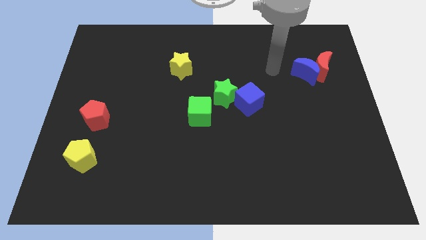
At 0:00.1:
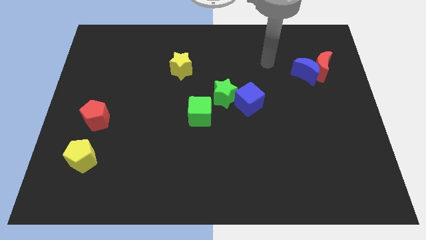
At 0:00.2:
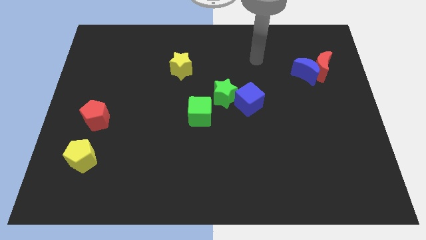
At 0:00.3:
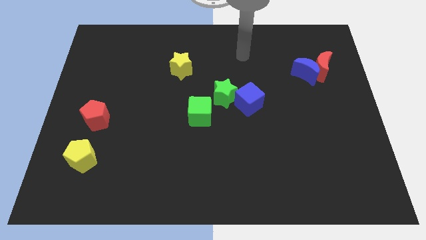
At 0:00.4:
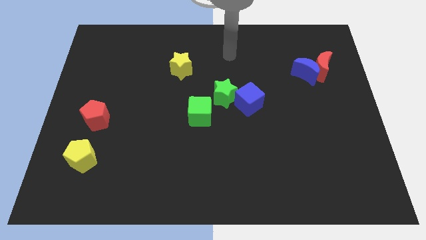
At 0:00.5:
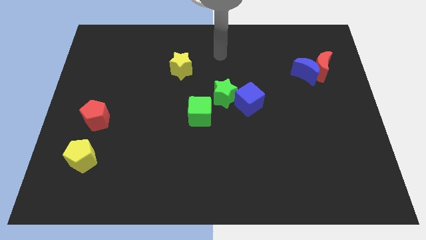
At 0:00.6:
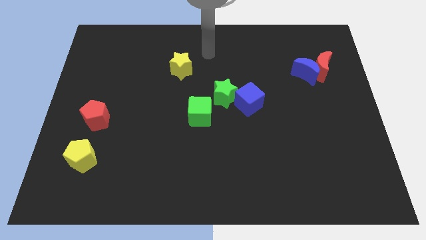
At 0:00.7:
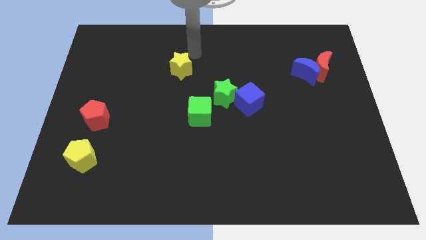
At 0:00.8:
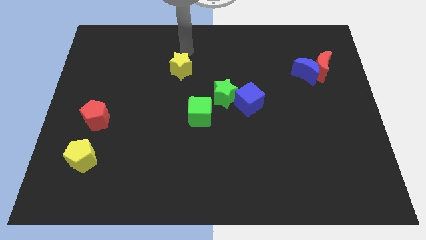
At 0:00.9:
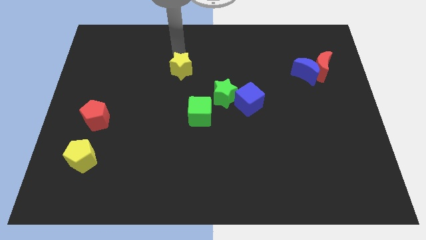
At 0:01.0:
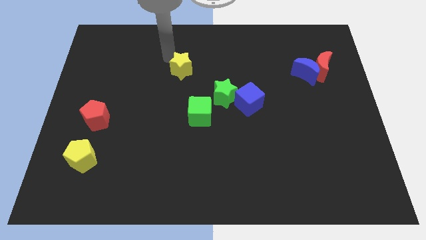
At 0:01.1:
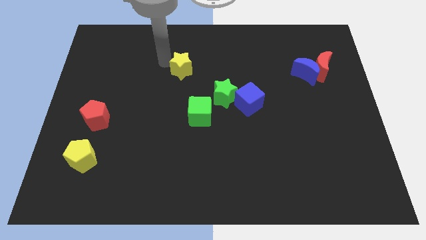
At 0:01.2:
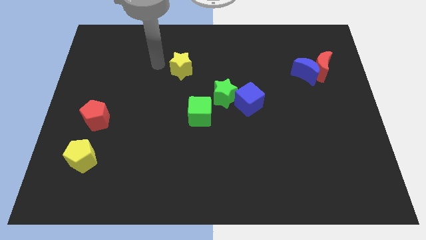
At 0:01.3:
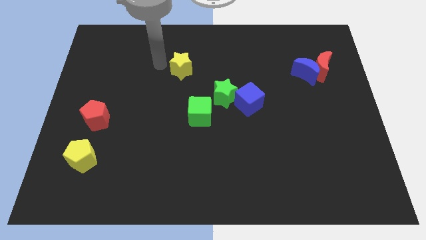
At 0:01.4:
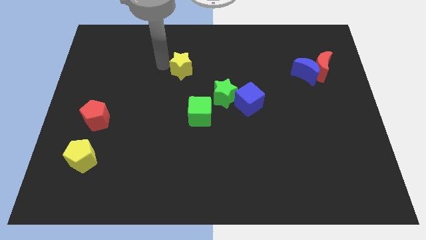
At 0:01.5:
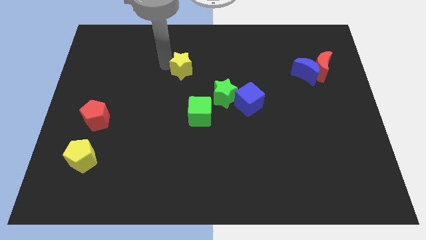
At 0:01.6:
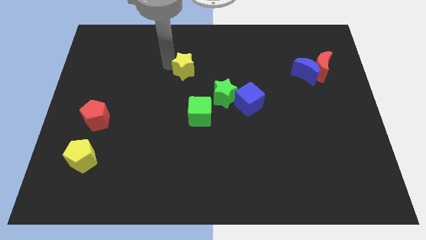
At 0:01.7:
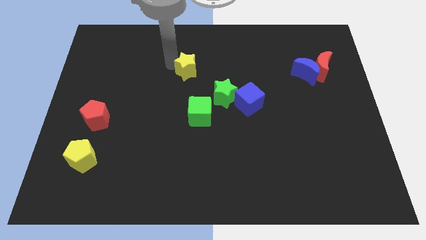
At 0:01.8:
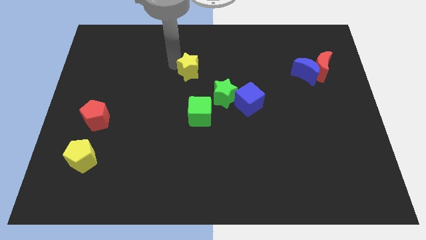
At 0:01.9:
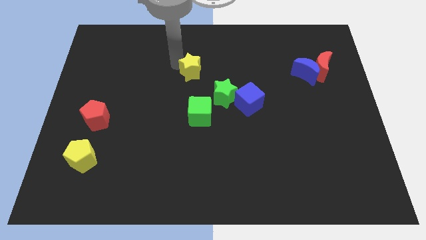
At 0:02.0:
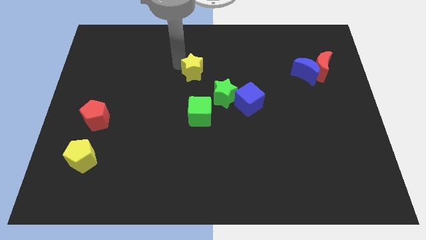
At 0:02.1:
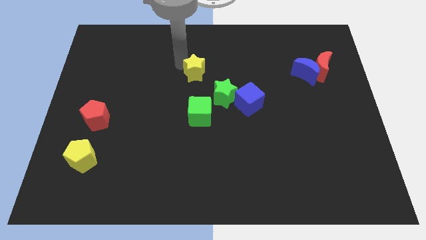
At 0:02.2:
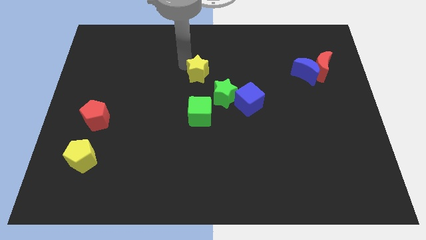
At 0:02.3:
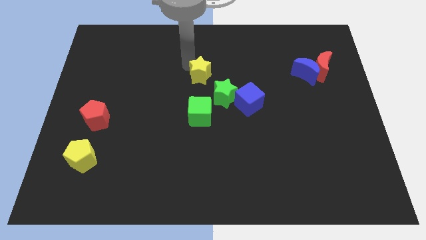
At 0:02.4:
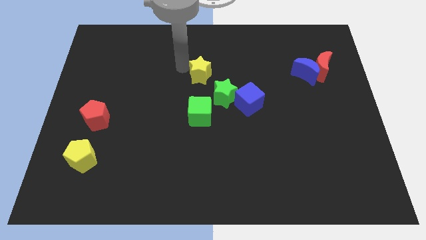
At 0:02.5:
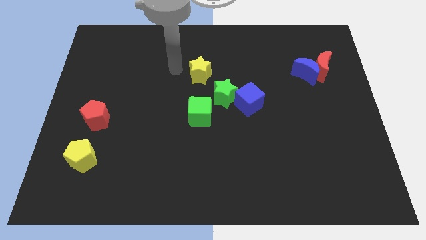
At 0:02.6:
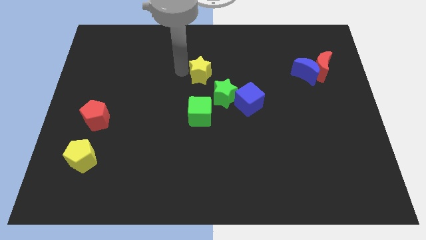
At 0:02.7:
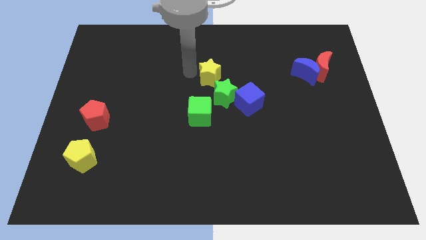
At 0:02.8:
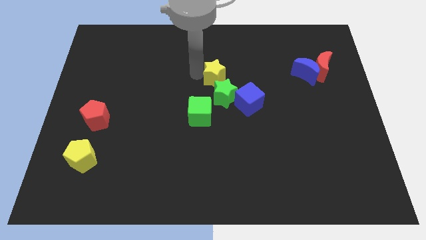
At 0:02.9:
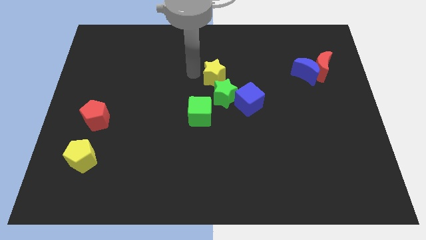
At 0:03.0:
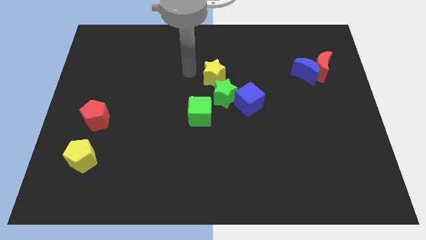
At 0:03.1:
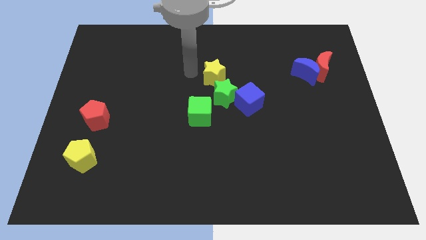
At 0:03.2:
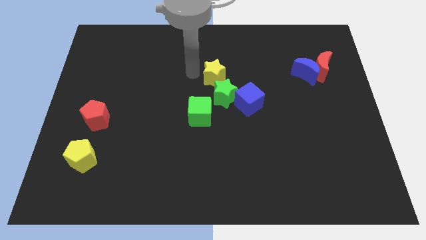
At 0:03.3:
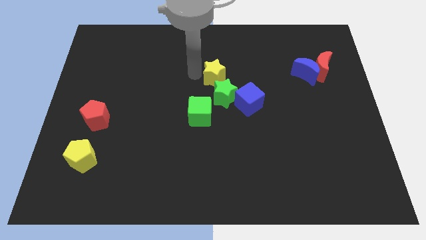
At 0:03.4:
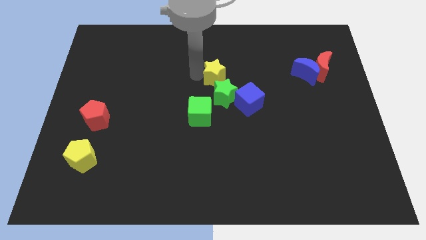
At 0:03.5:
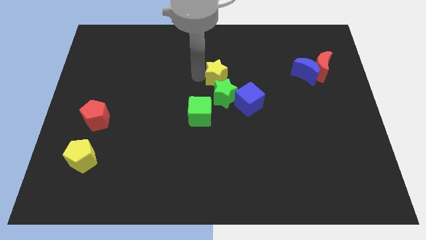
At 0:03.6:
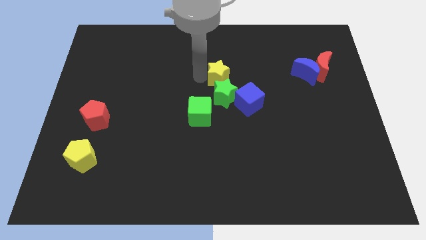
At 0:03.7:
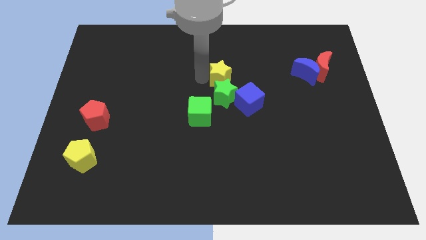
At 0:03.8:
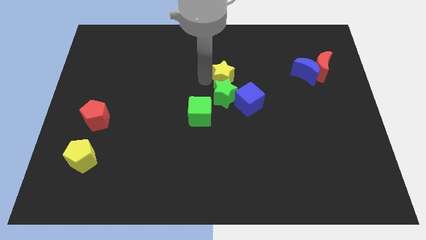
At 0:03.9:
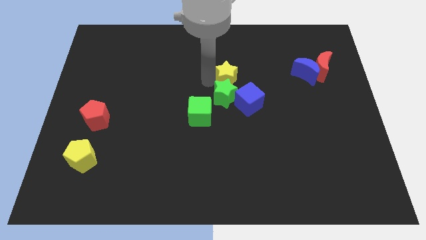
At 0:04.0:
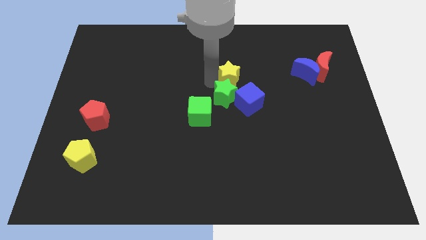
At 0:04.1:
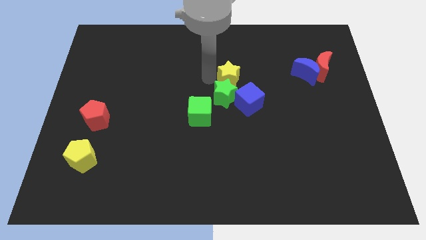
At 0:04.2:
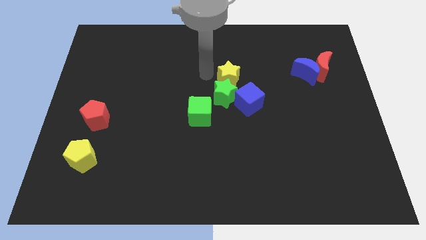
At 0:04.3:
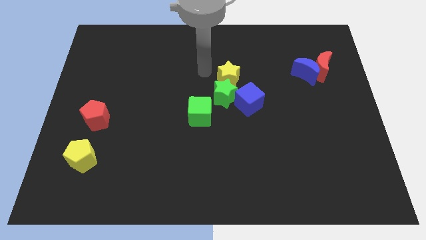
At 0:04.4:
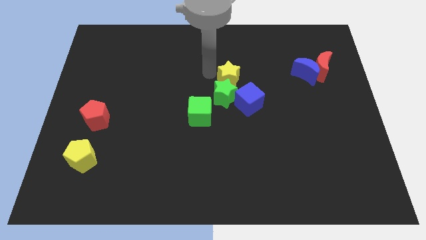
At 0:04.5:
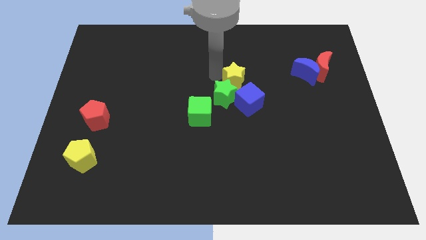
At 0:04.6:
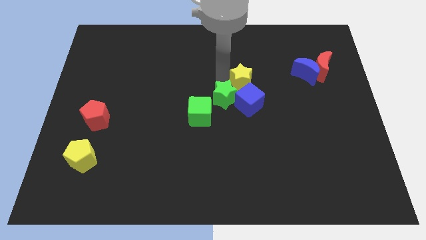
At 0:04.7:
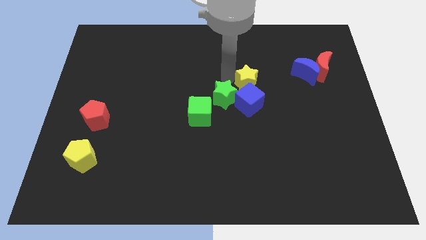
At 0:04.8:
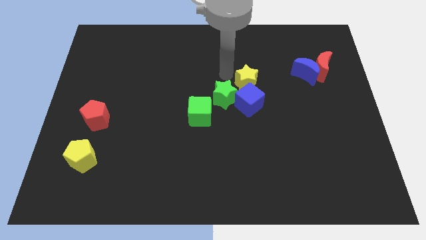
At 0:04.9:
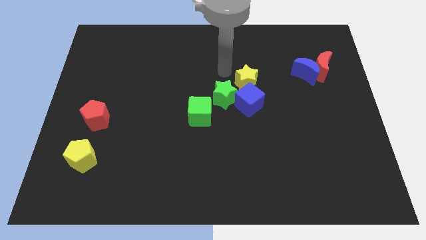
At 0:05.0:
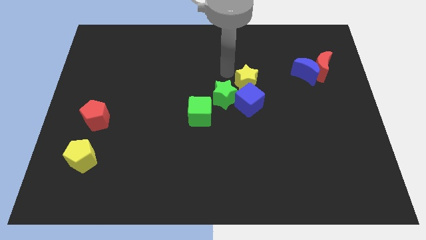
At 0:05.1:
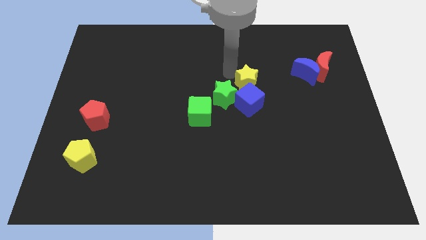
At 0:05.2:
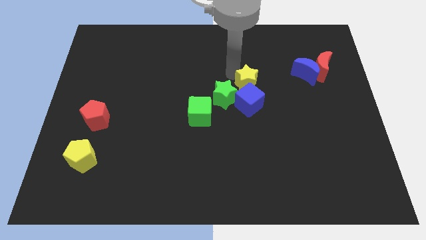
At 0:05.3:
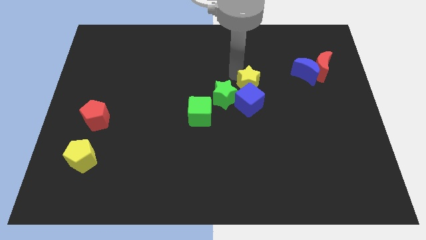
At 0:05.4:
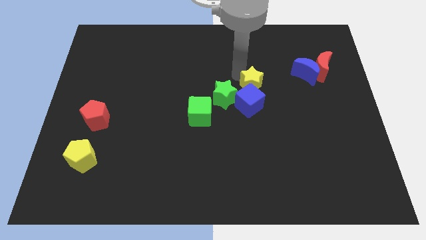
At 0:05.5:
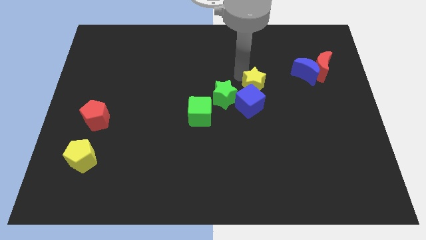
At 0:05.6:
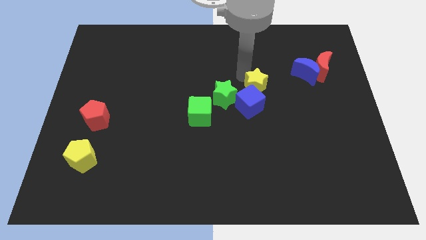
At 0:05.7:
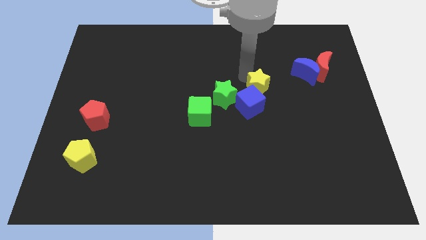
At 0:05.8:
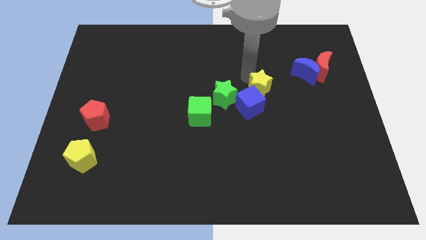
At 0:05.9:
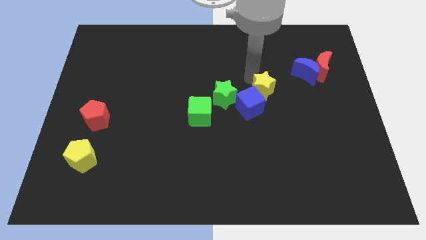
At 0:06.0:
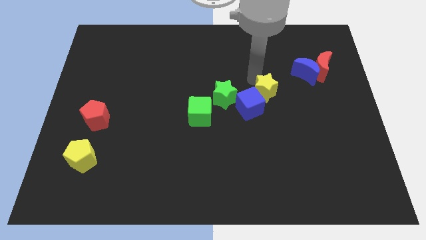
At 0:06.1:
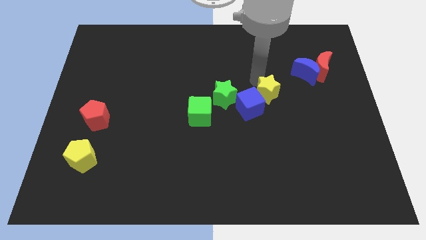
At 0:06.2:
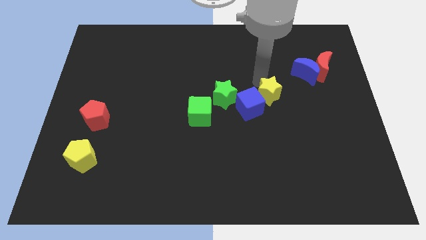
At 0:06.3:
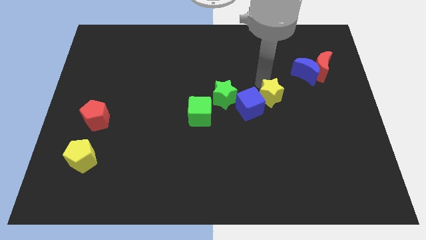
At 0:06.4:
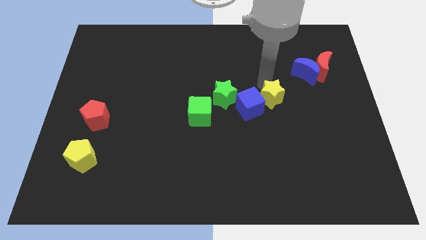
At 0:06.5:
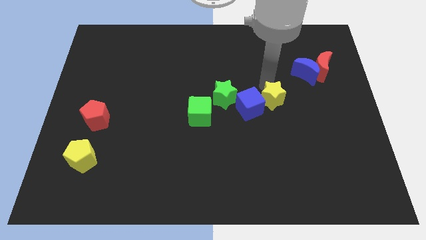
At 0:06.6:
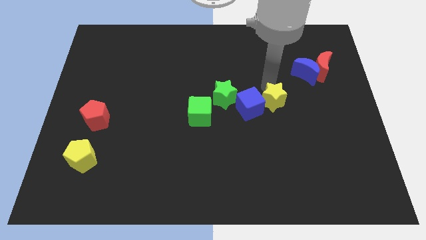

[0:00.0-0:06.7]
slide the yellow star downwards and right

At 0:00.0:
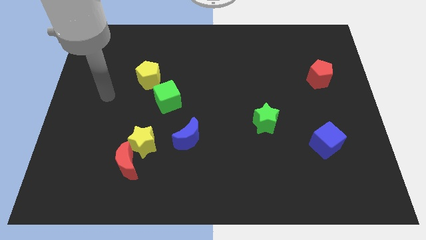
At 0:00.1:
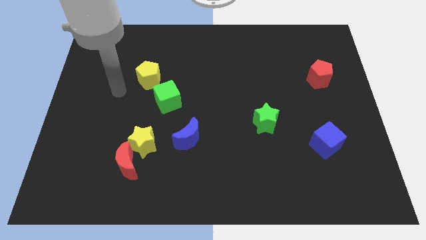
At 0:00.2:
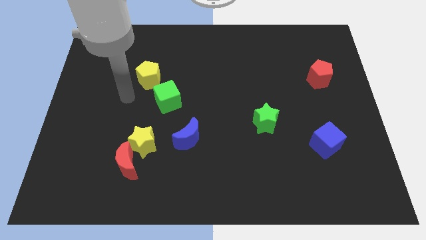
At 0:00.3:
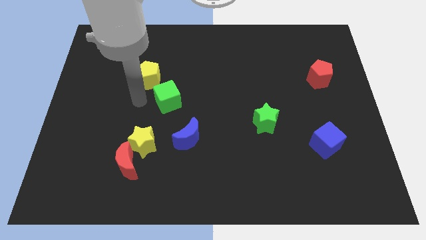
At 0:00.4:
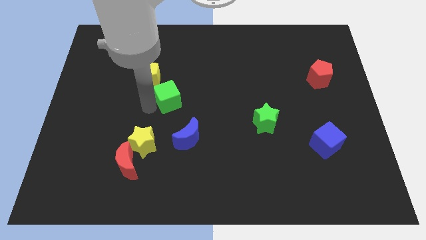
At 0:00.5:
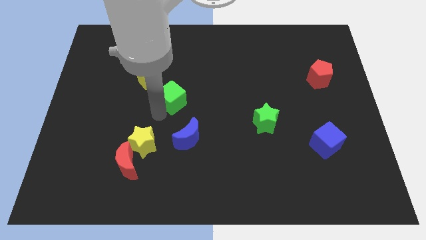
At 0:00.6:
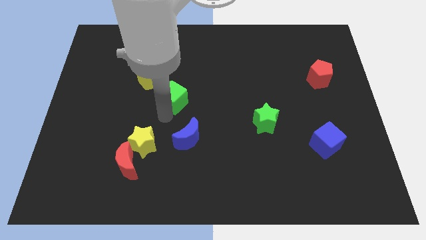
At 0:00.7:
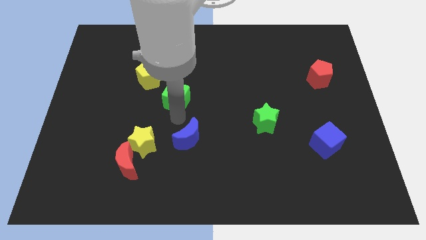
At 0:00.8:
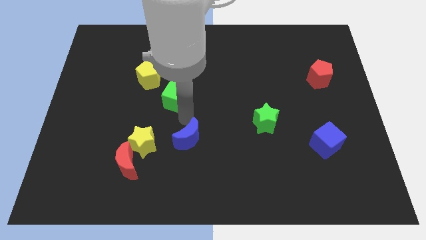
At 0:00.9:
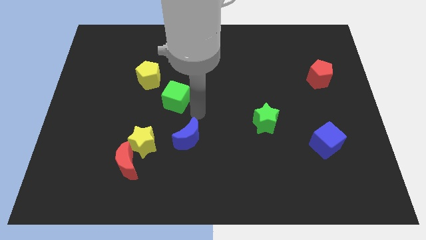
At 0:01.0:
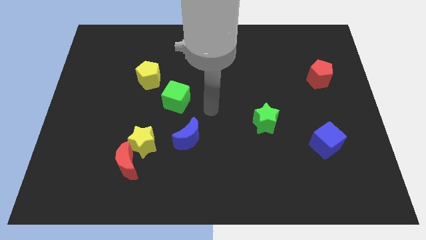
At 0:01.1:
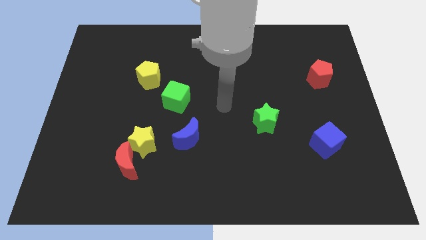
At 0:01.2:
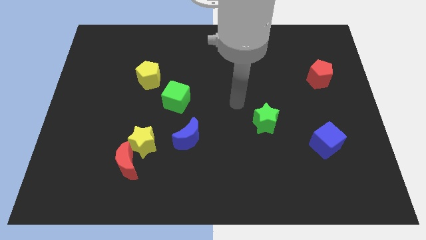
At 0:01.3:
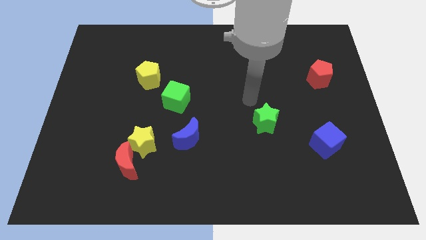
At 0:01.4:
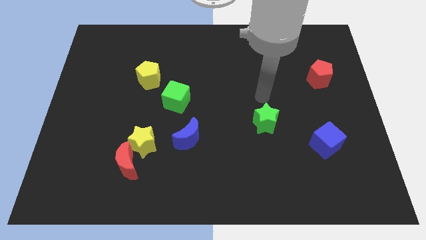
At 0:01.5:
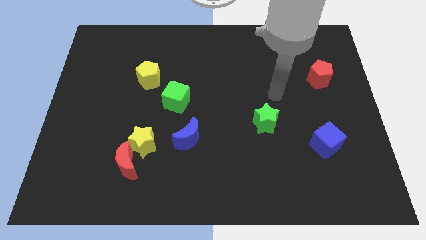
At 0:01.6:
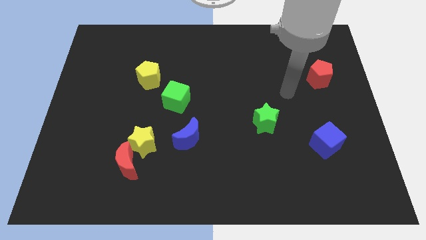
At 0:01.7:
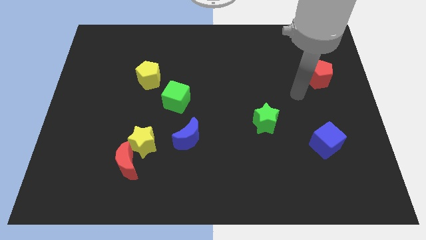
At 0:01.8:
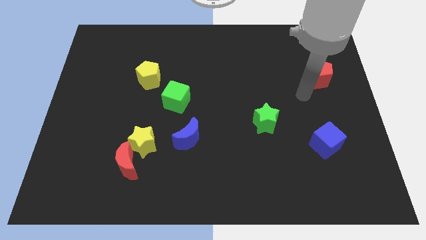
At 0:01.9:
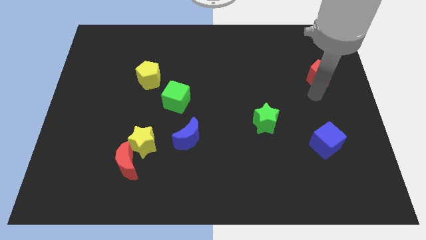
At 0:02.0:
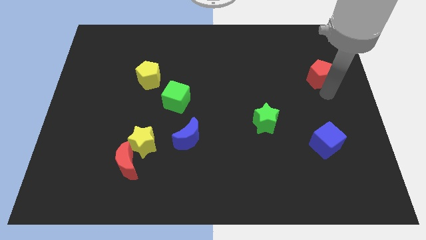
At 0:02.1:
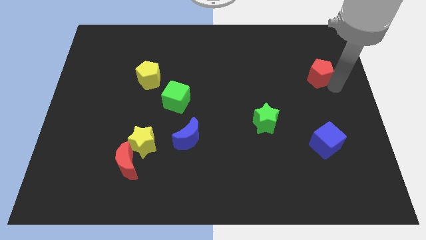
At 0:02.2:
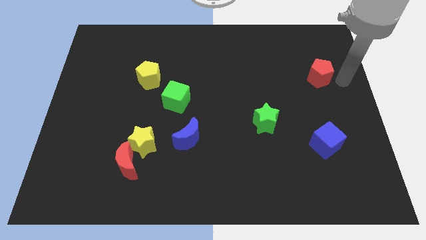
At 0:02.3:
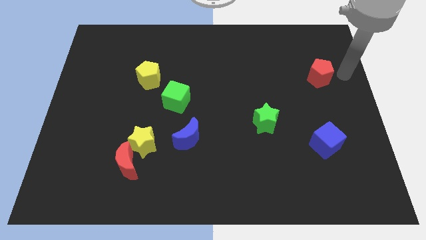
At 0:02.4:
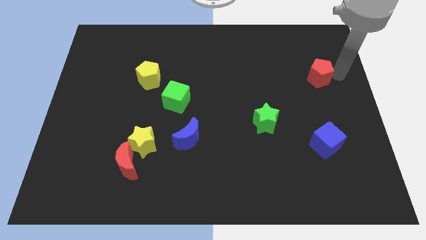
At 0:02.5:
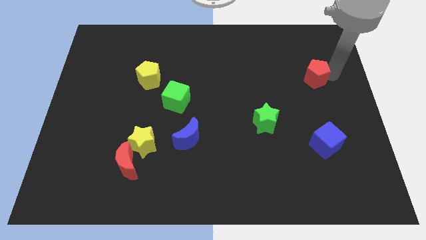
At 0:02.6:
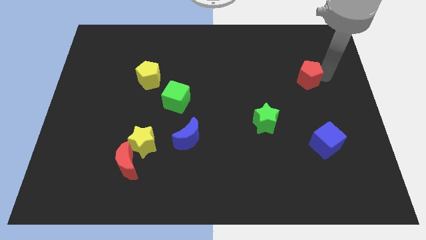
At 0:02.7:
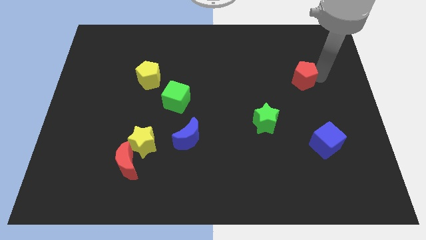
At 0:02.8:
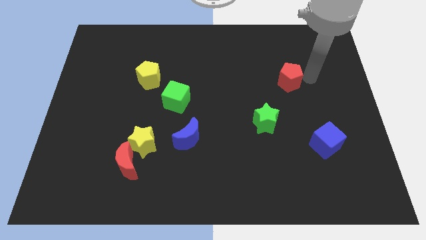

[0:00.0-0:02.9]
slightly push the red pentagon left
